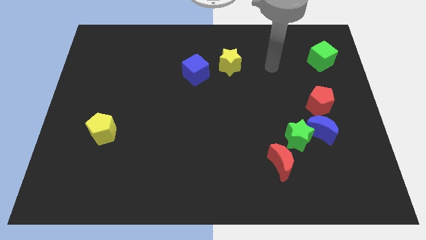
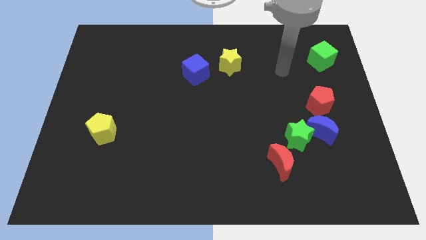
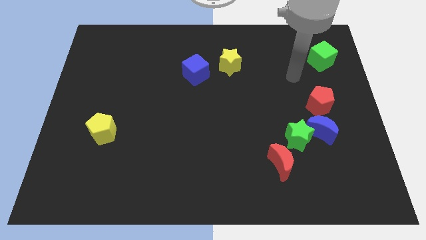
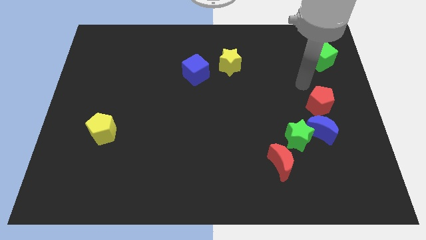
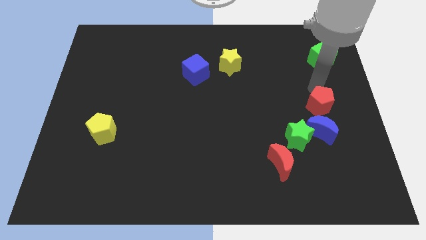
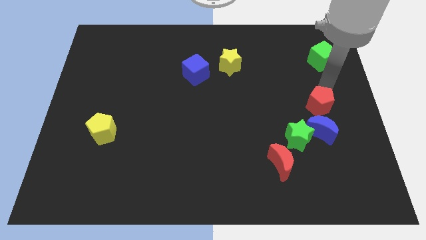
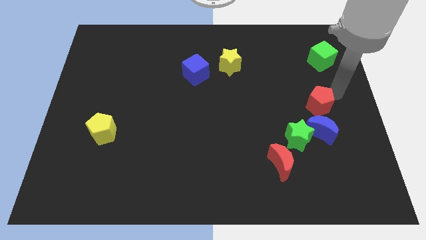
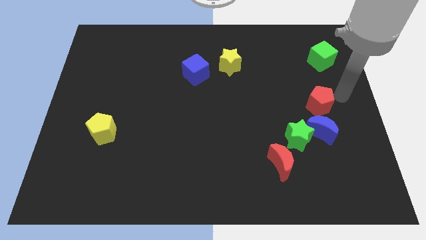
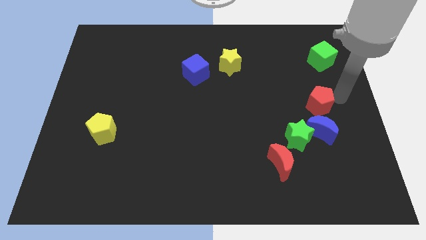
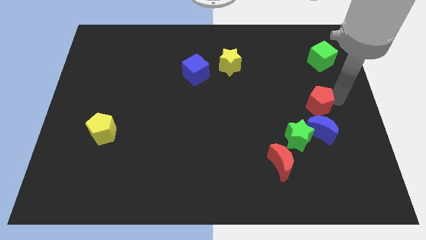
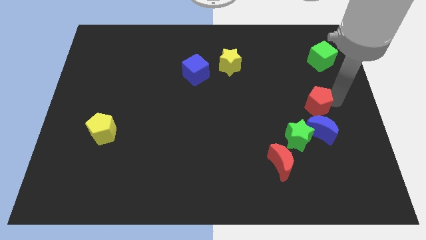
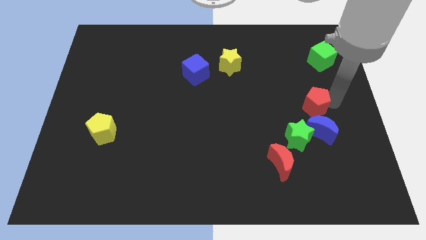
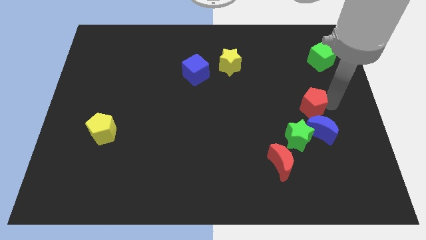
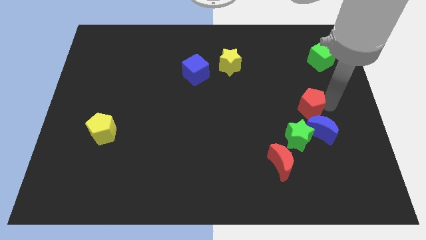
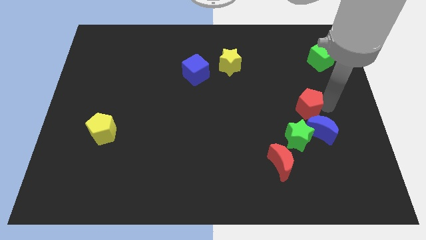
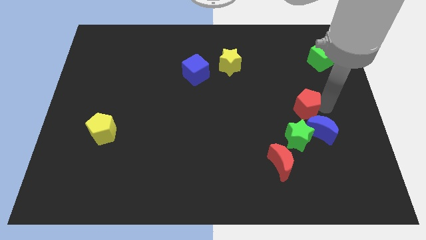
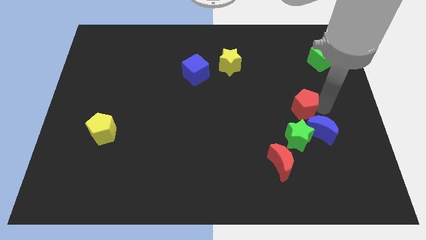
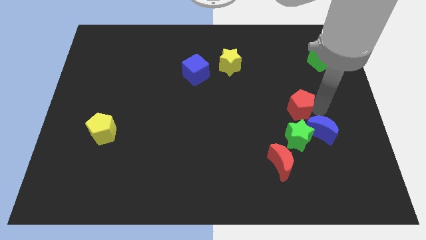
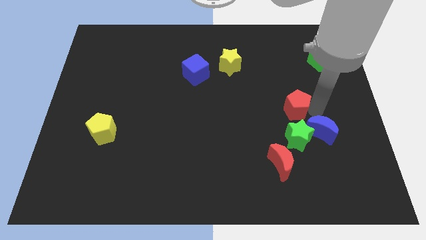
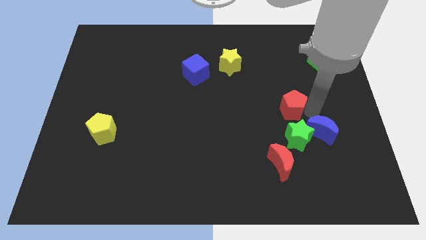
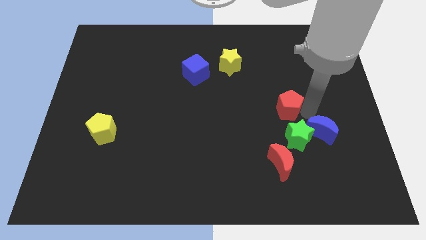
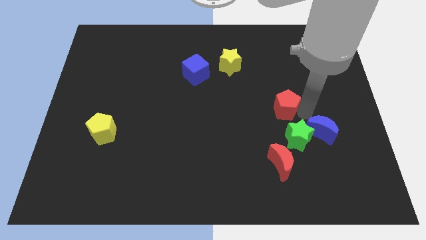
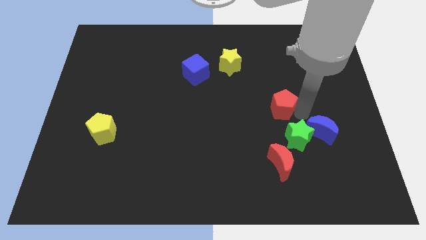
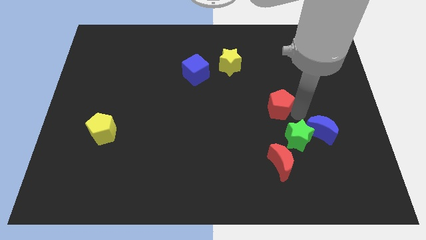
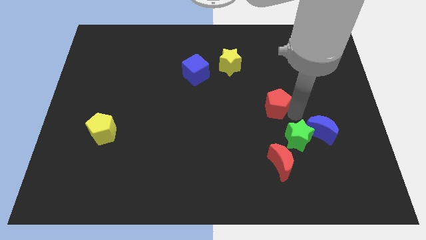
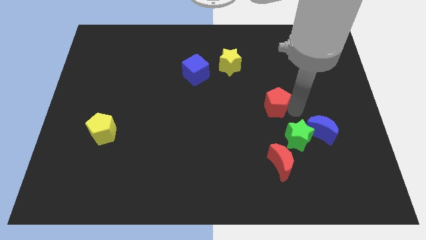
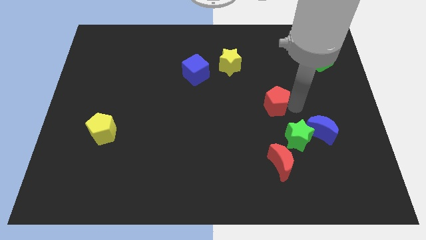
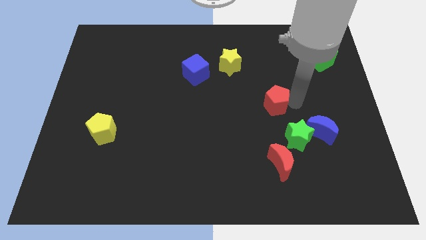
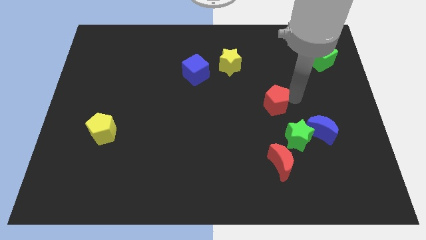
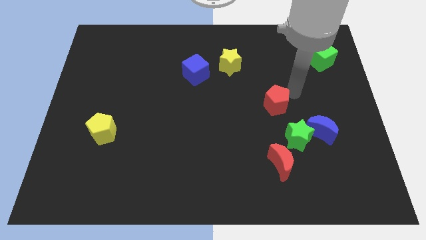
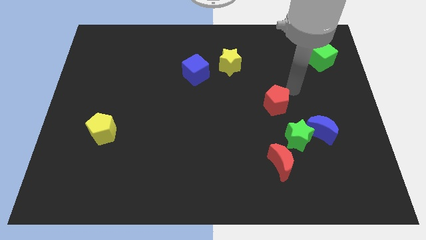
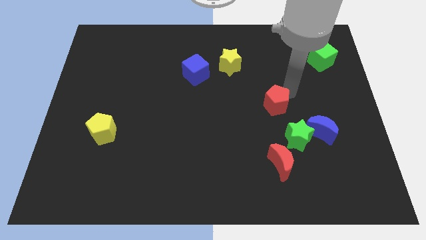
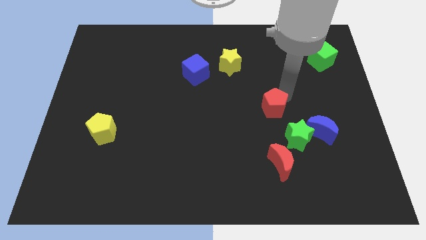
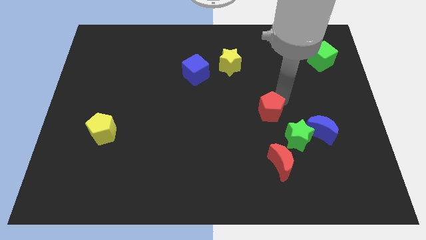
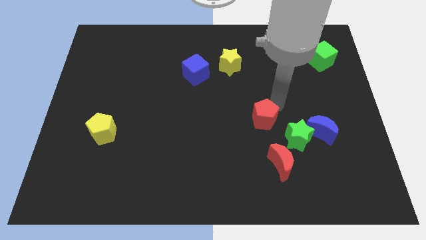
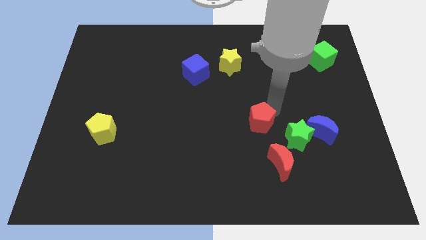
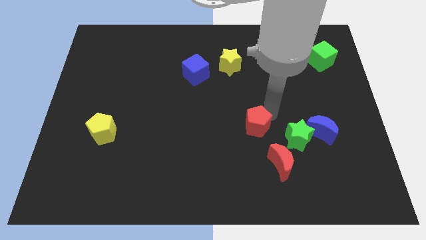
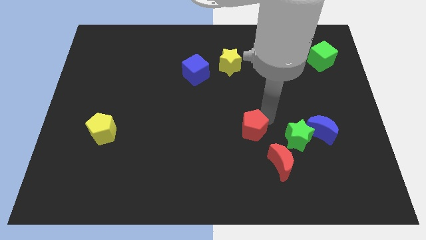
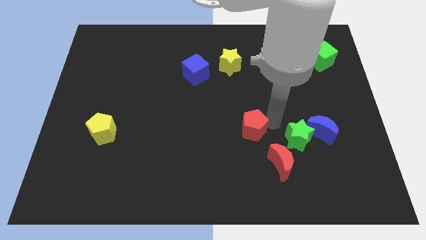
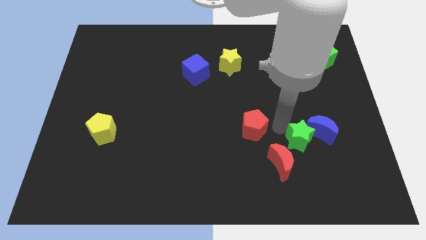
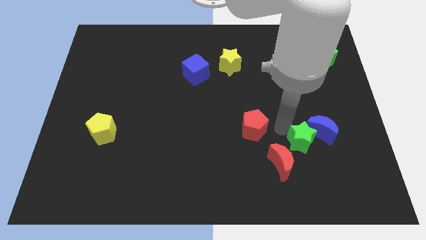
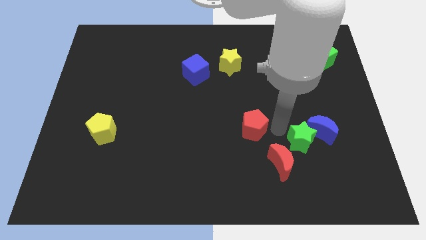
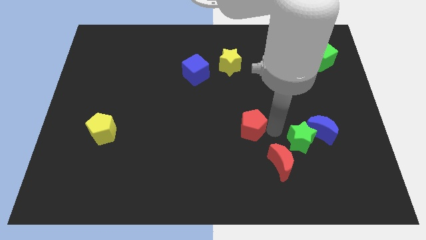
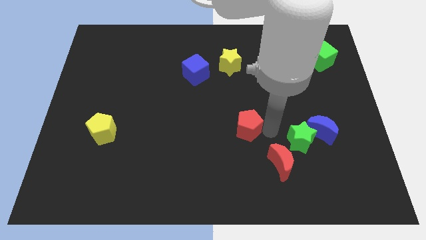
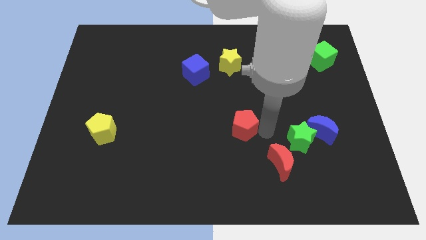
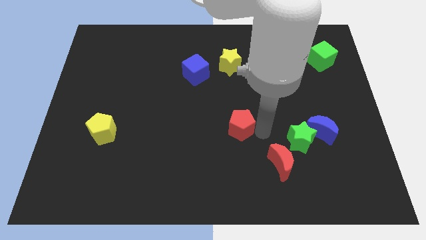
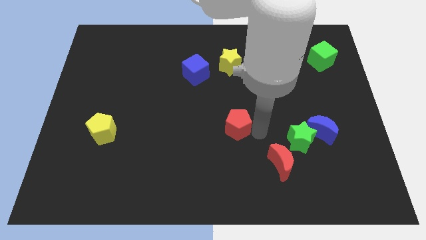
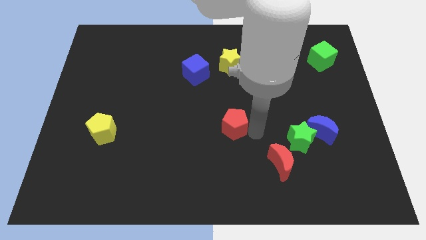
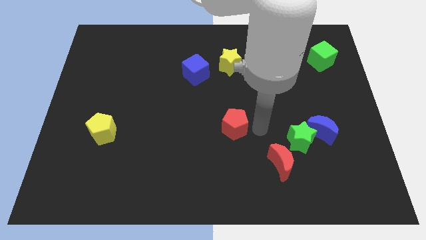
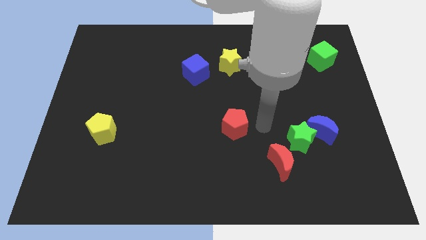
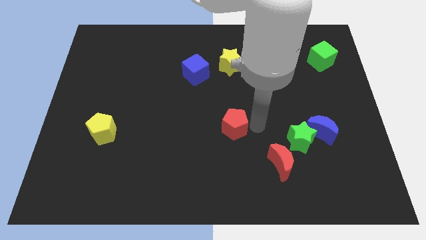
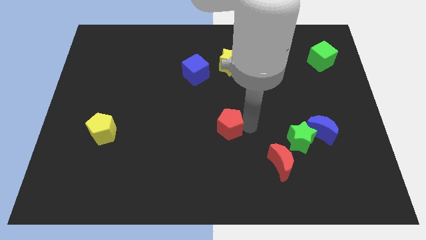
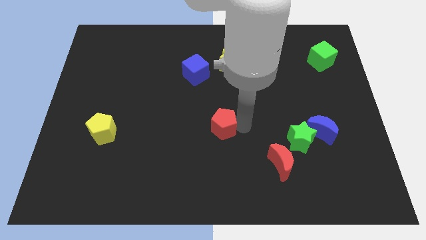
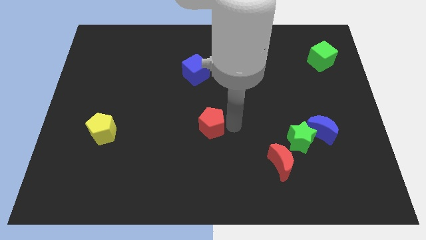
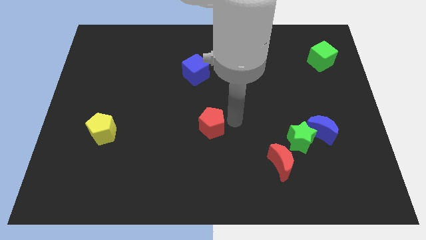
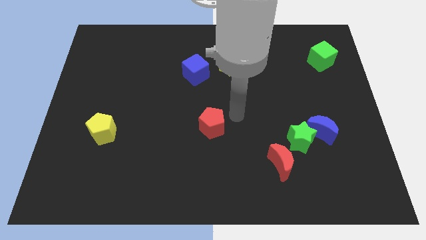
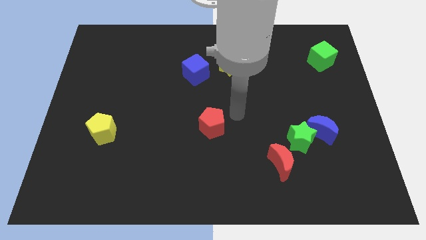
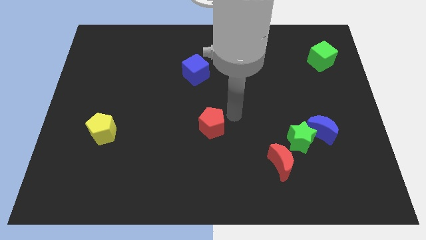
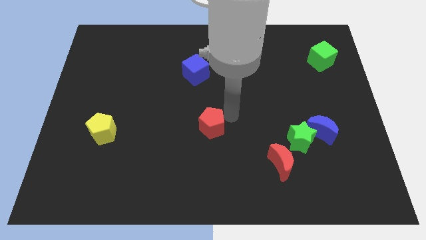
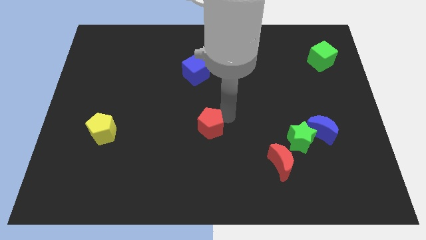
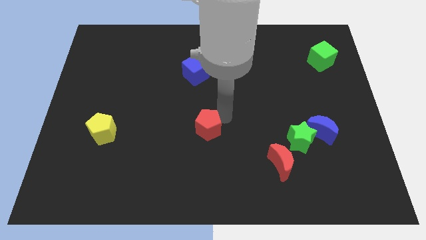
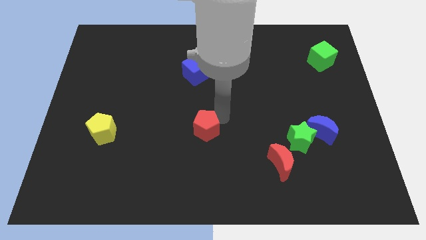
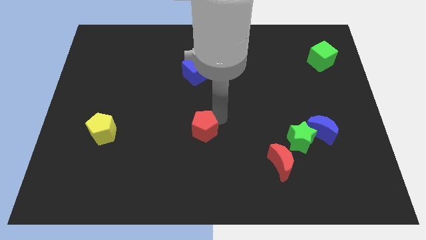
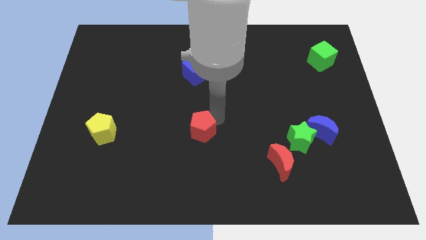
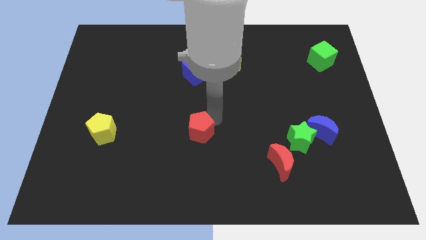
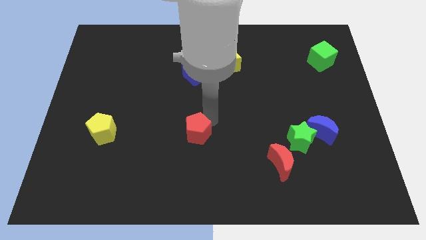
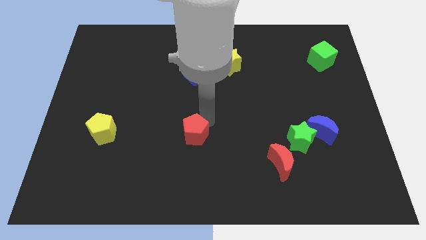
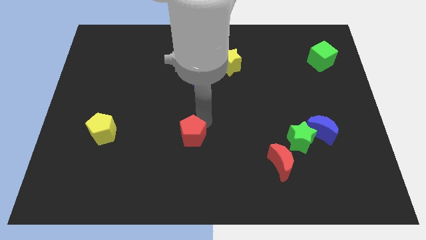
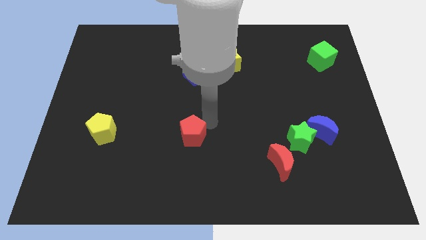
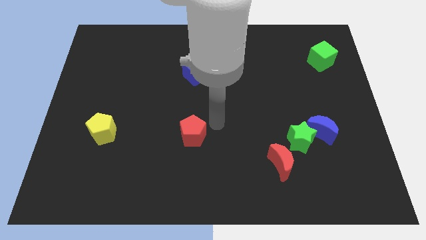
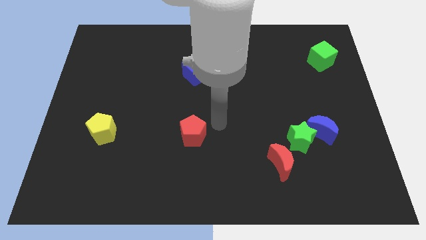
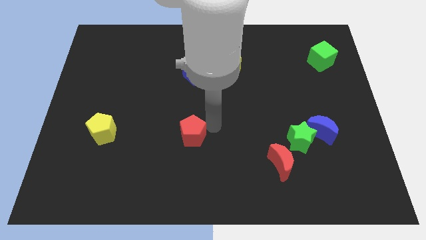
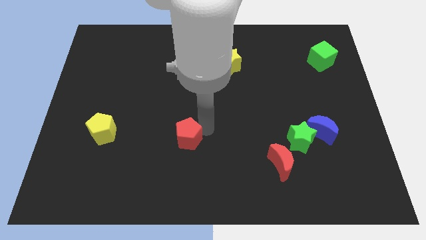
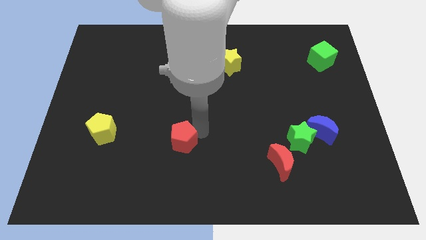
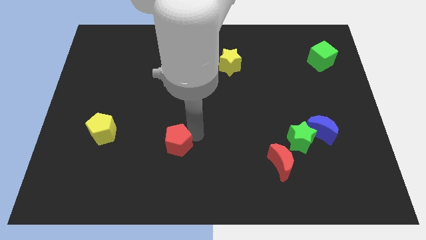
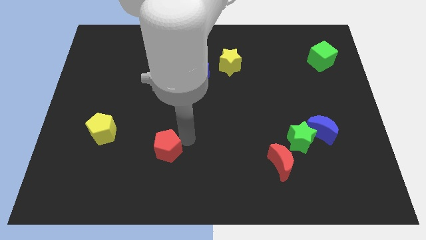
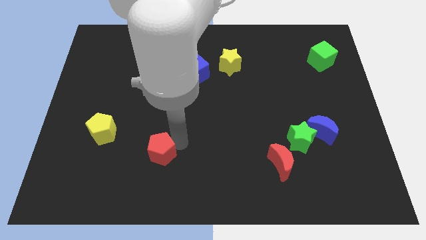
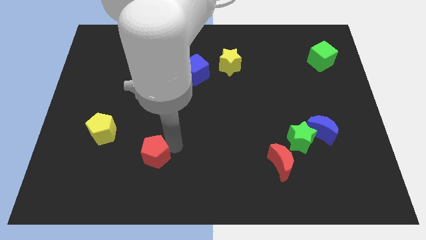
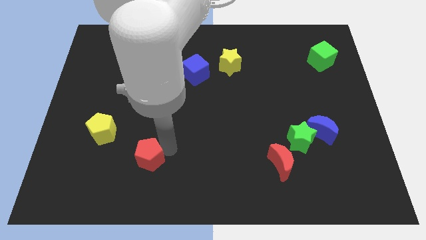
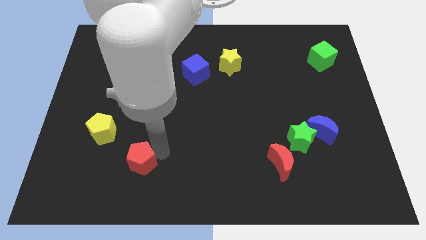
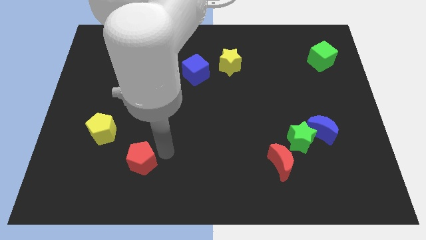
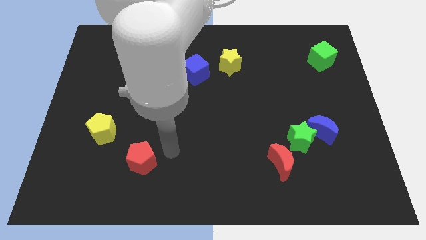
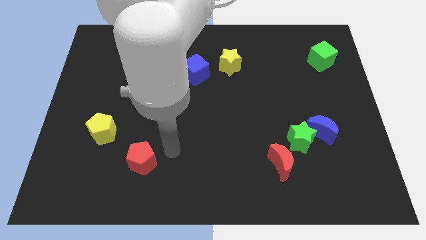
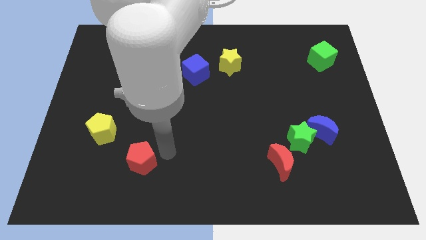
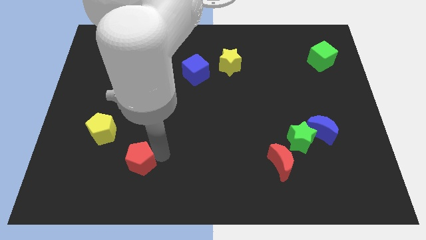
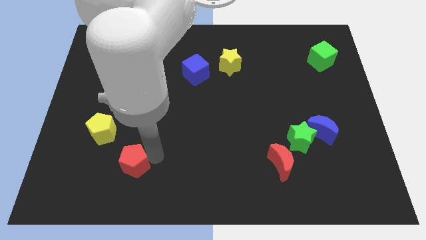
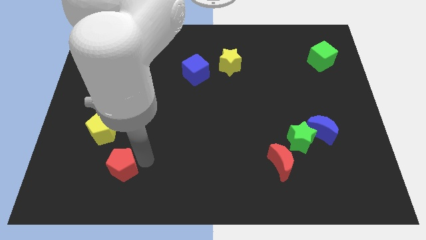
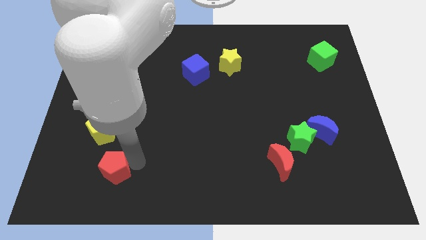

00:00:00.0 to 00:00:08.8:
push the red pentagon to the bottom of the yellow pentagon
